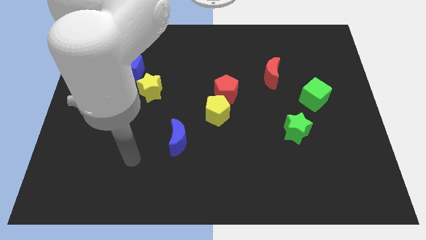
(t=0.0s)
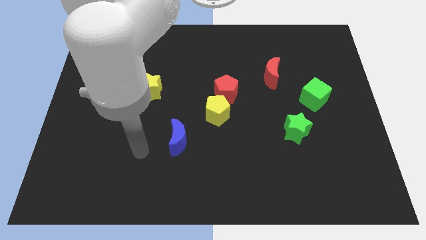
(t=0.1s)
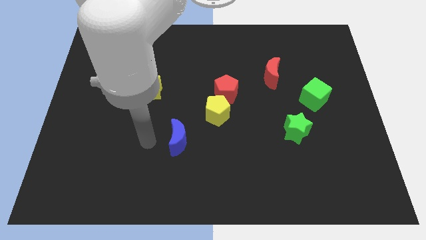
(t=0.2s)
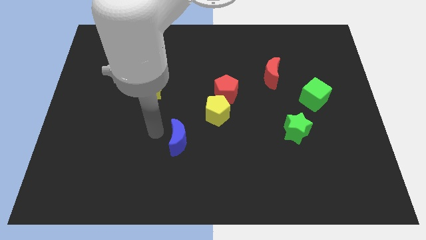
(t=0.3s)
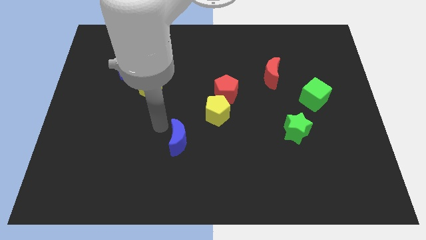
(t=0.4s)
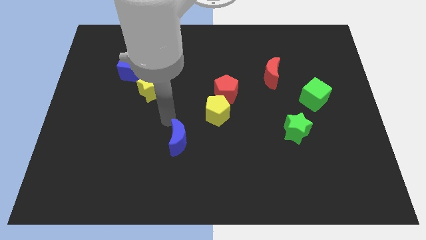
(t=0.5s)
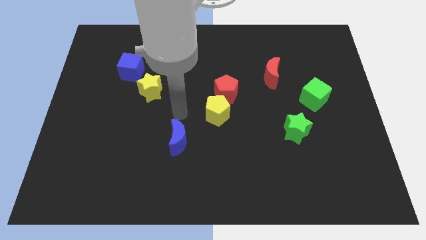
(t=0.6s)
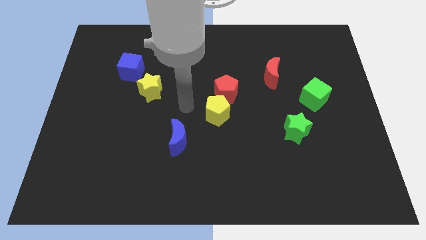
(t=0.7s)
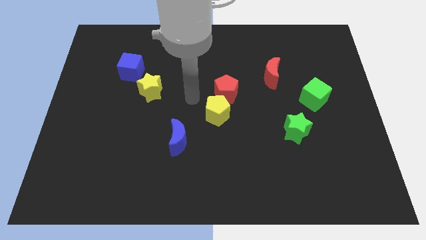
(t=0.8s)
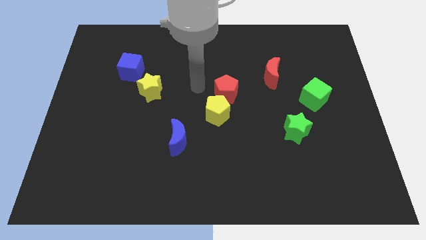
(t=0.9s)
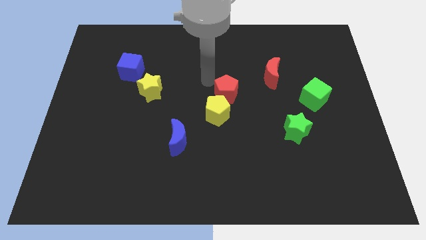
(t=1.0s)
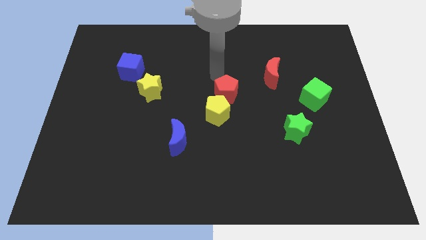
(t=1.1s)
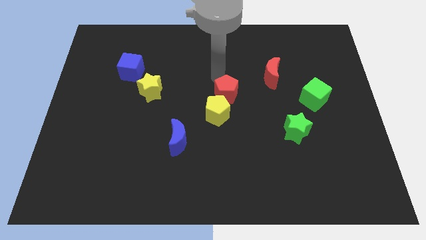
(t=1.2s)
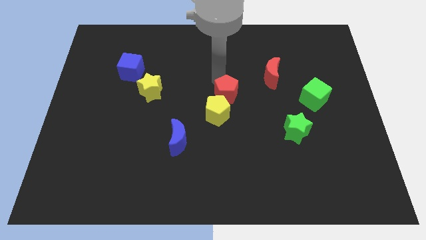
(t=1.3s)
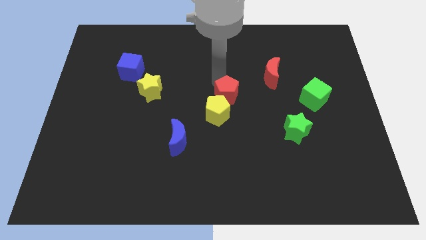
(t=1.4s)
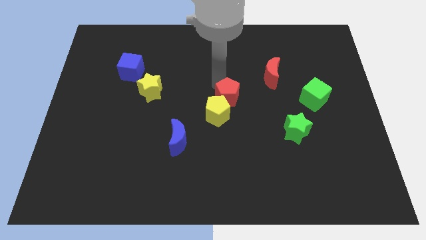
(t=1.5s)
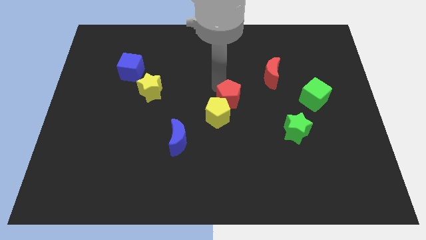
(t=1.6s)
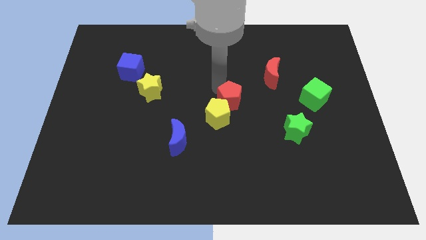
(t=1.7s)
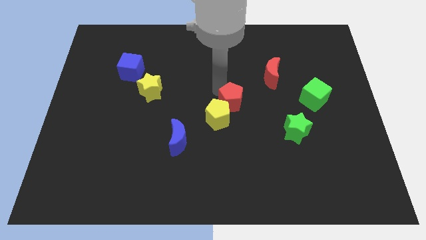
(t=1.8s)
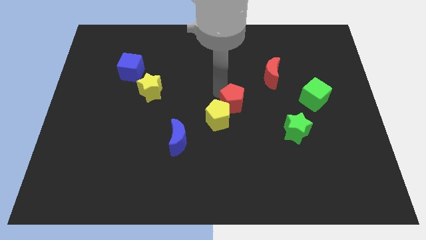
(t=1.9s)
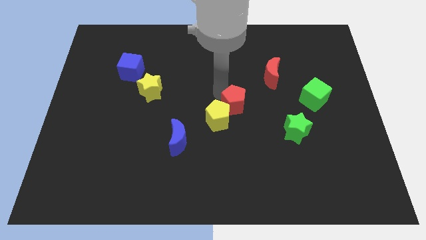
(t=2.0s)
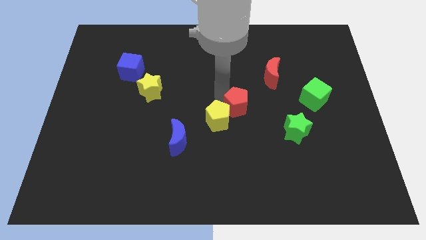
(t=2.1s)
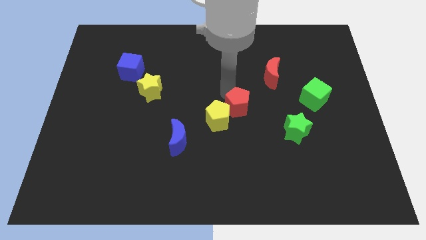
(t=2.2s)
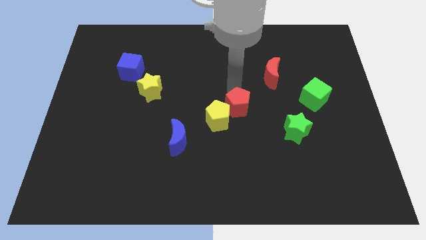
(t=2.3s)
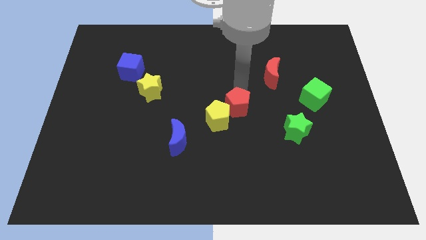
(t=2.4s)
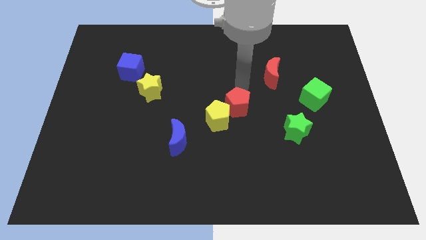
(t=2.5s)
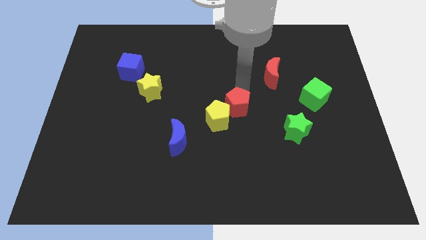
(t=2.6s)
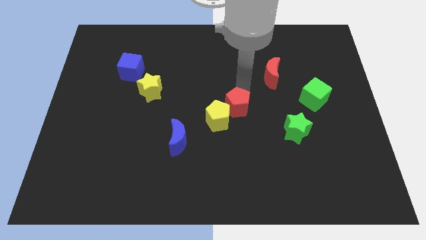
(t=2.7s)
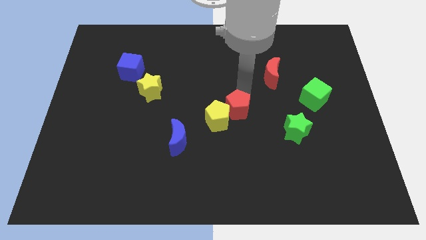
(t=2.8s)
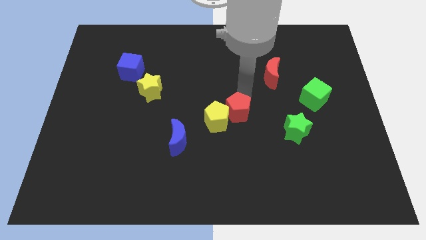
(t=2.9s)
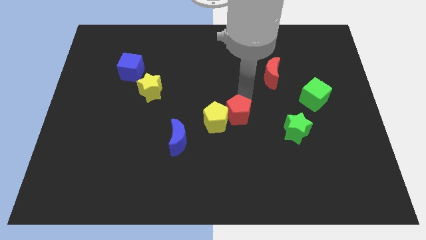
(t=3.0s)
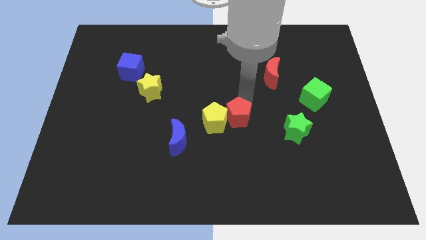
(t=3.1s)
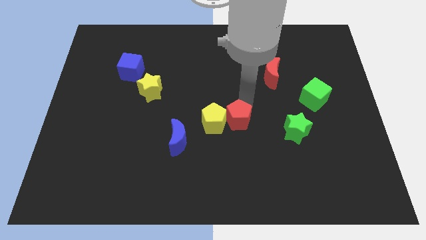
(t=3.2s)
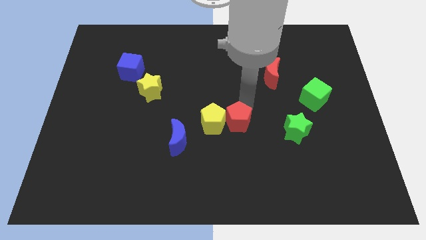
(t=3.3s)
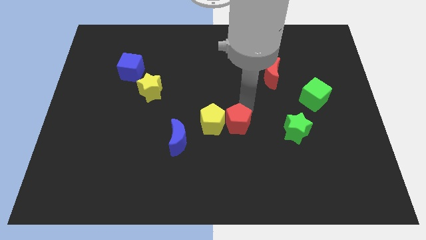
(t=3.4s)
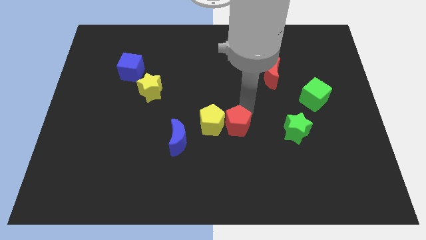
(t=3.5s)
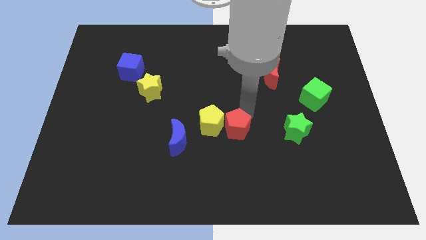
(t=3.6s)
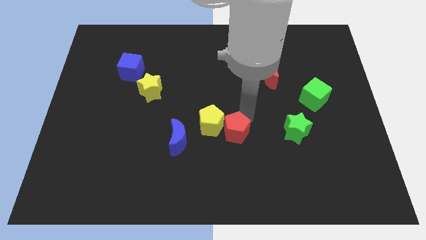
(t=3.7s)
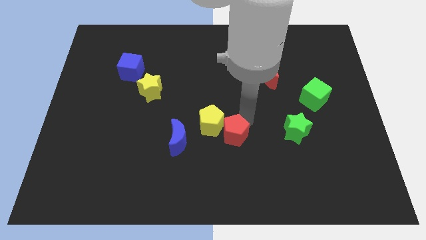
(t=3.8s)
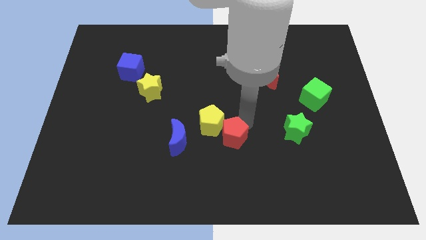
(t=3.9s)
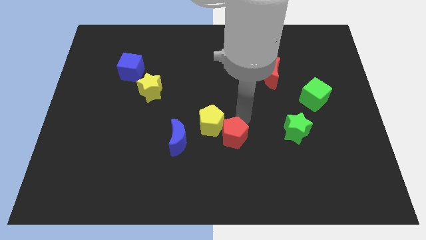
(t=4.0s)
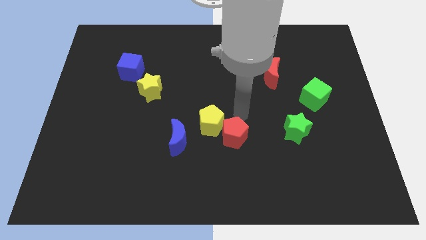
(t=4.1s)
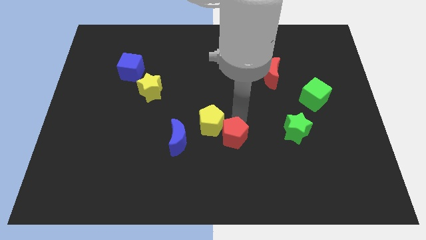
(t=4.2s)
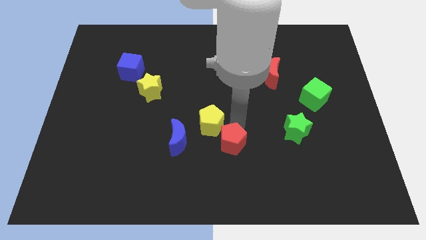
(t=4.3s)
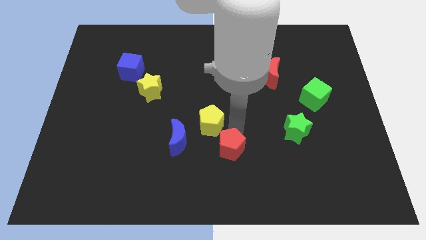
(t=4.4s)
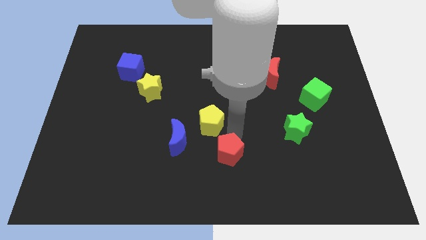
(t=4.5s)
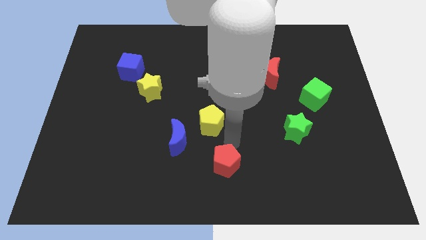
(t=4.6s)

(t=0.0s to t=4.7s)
put the red pentagon to the bottom side

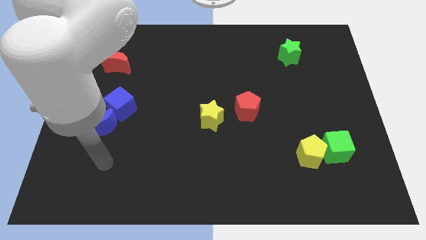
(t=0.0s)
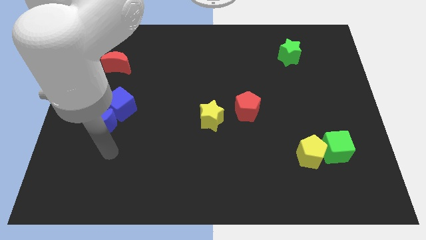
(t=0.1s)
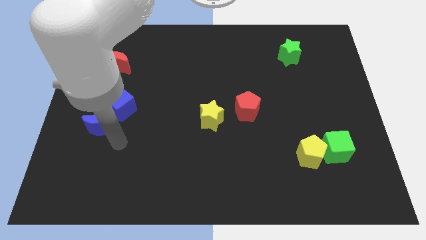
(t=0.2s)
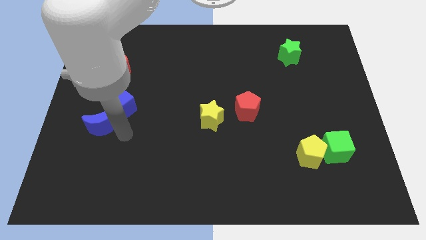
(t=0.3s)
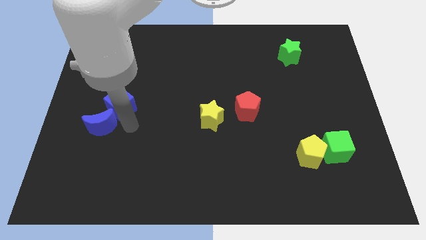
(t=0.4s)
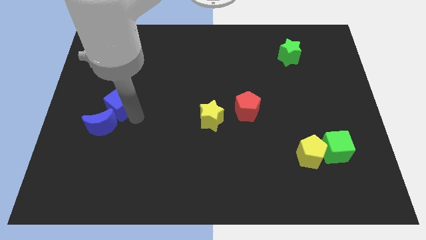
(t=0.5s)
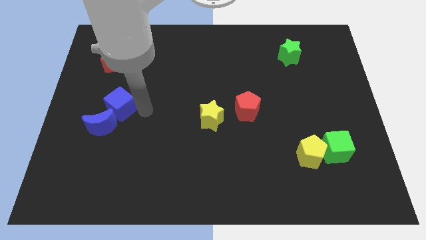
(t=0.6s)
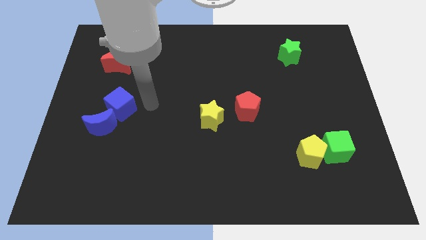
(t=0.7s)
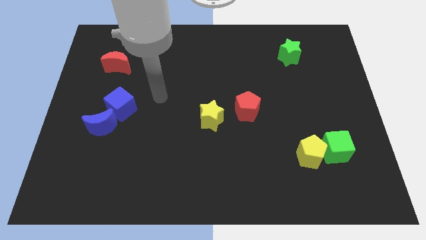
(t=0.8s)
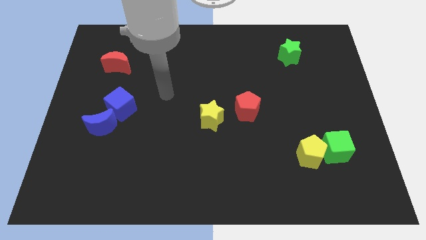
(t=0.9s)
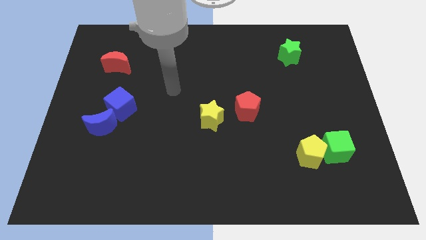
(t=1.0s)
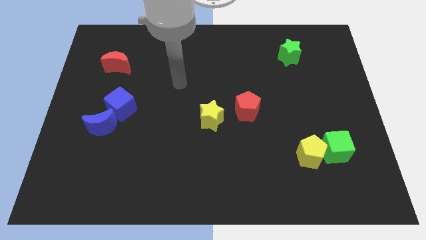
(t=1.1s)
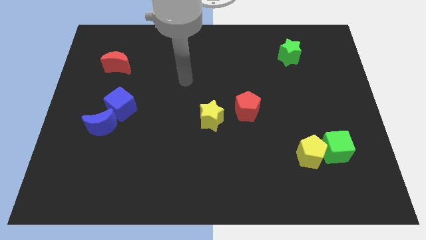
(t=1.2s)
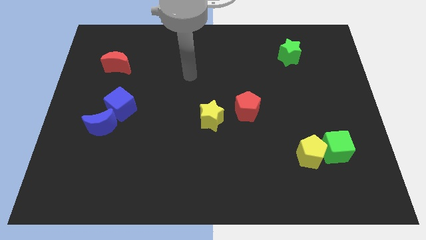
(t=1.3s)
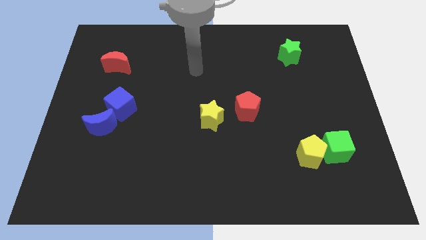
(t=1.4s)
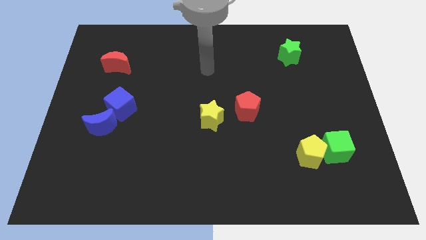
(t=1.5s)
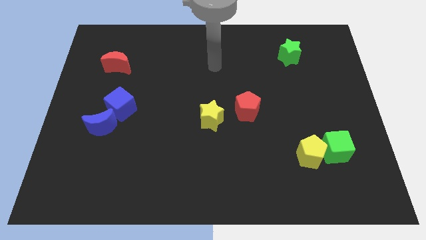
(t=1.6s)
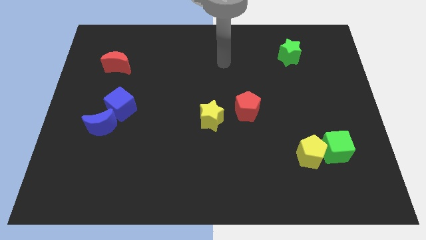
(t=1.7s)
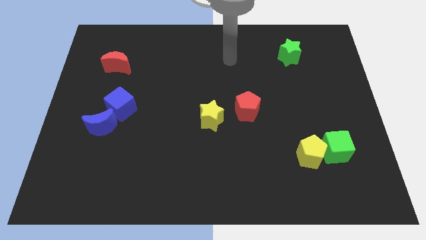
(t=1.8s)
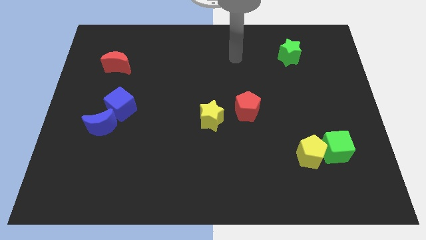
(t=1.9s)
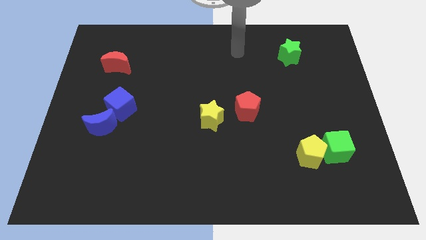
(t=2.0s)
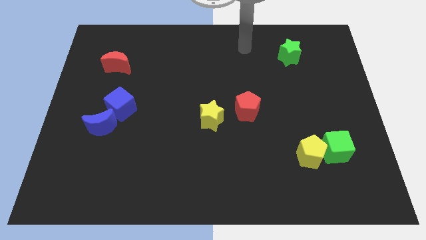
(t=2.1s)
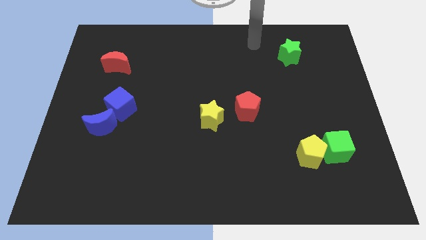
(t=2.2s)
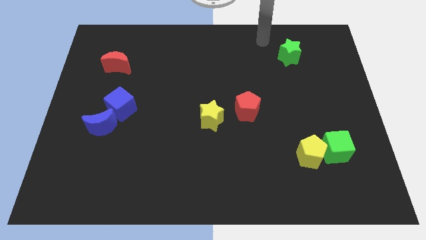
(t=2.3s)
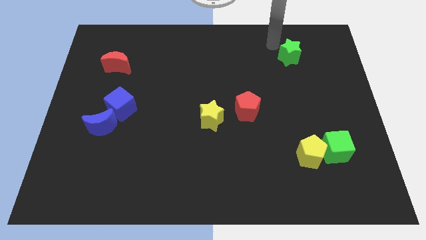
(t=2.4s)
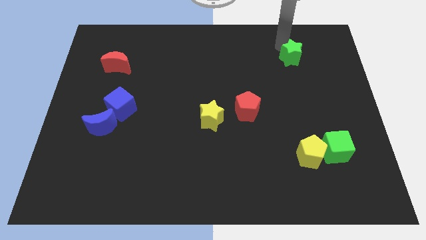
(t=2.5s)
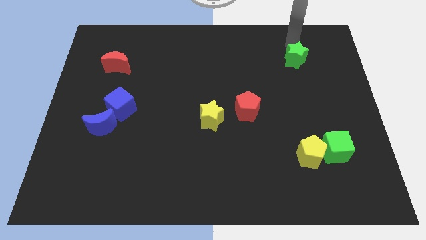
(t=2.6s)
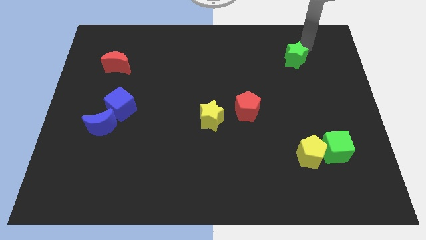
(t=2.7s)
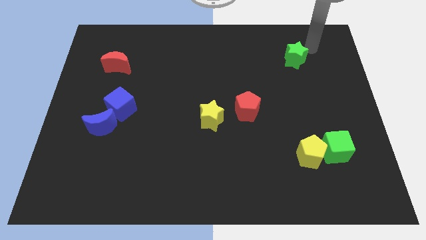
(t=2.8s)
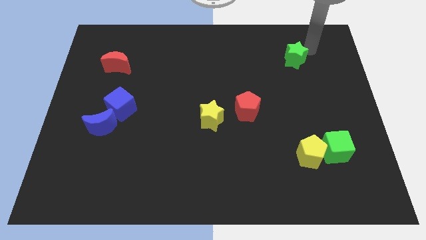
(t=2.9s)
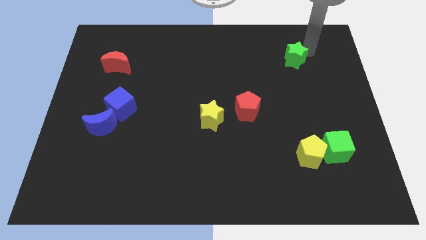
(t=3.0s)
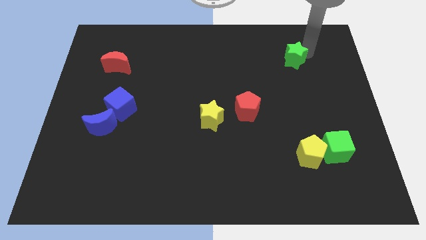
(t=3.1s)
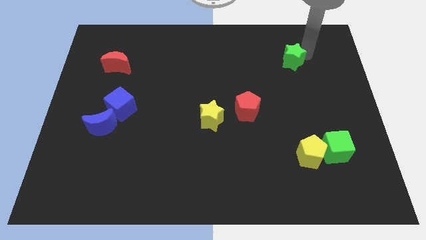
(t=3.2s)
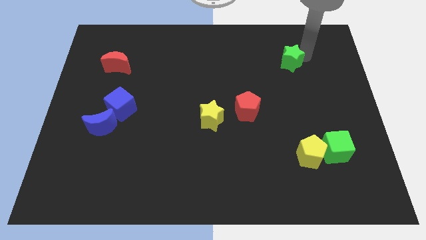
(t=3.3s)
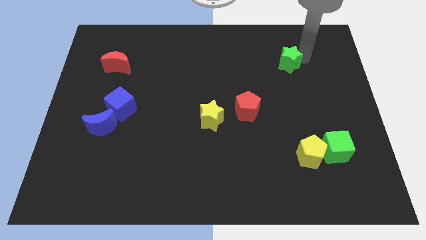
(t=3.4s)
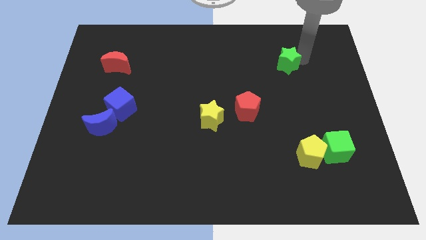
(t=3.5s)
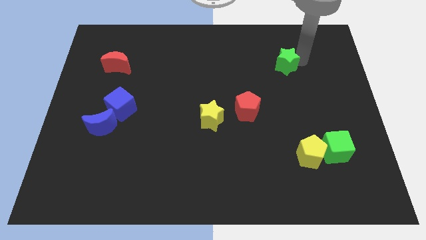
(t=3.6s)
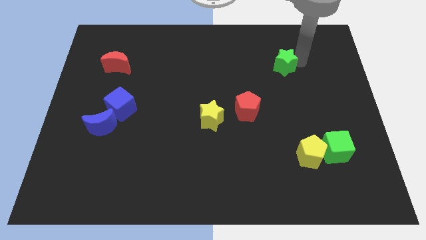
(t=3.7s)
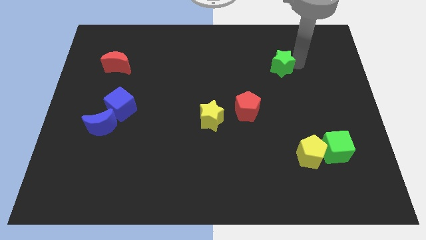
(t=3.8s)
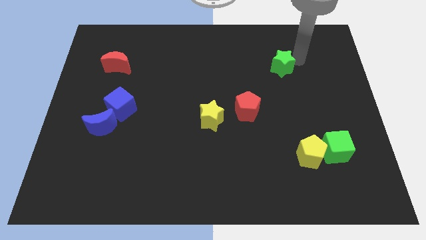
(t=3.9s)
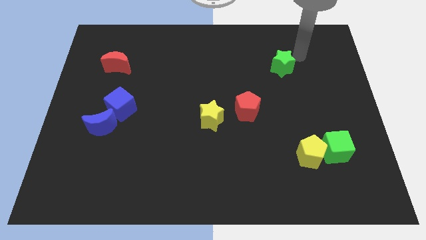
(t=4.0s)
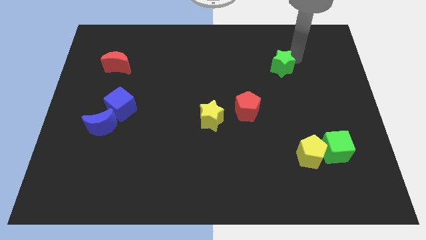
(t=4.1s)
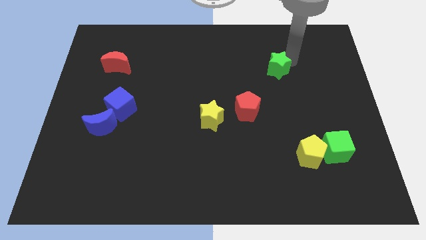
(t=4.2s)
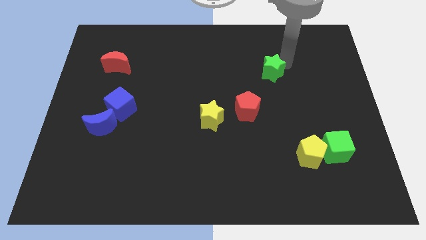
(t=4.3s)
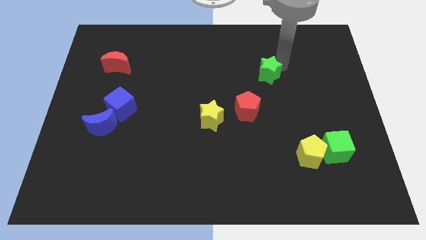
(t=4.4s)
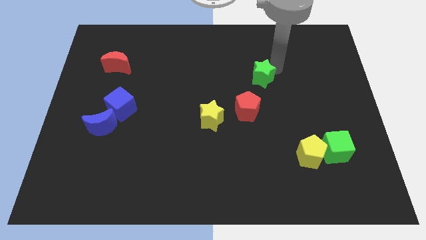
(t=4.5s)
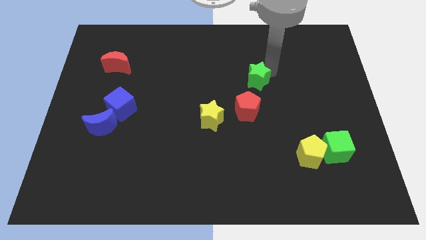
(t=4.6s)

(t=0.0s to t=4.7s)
push the green star to the middle
